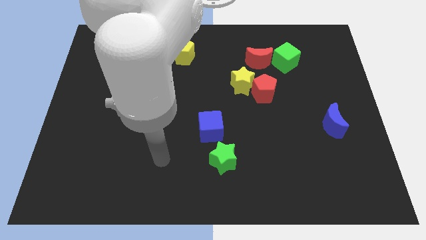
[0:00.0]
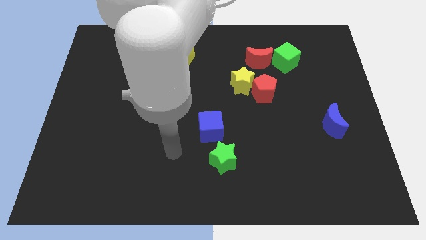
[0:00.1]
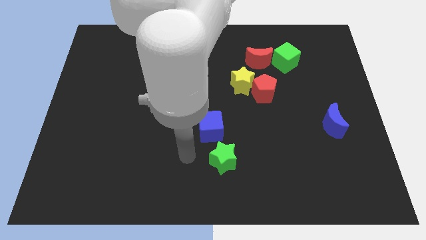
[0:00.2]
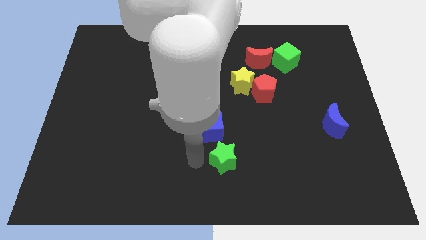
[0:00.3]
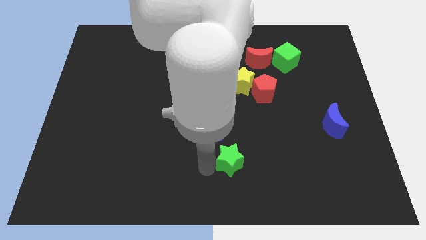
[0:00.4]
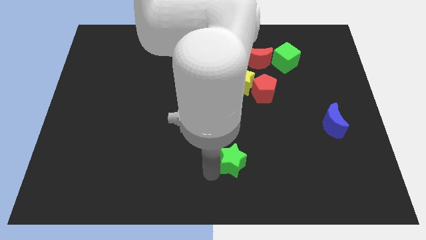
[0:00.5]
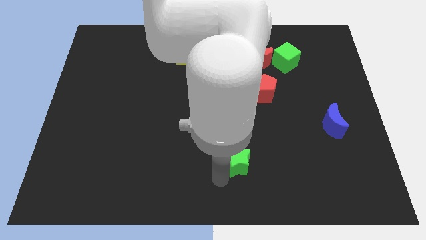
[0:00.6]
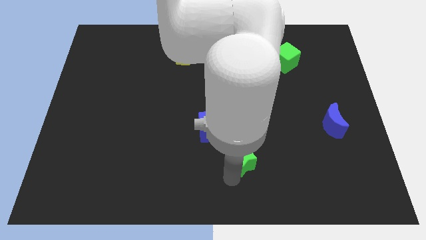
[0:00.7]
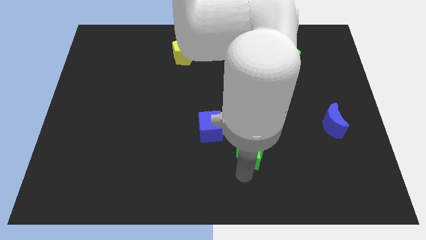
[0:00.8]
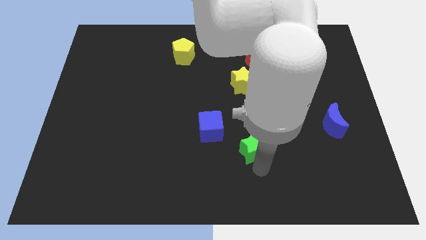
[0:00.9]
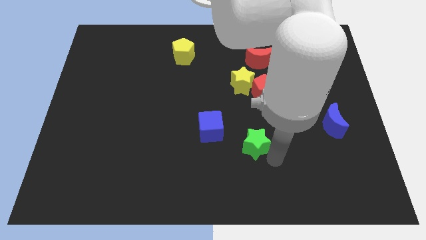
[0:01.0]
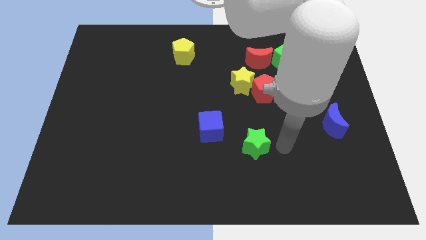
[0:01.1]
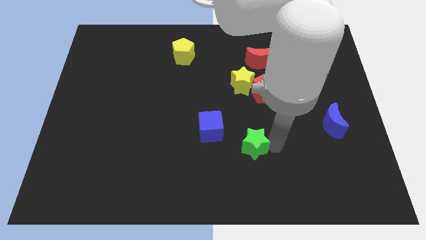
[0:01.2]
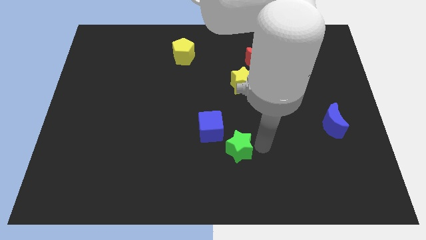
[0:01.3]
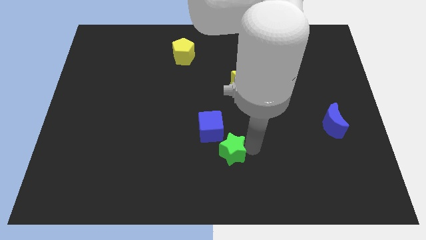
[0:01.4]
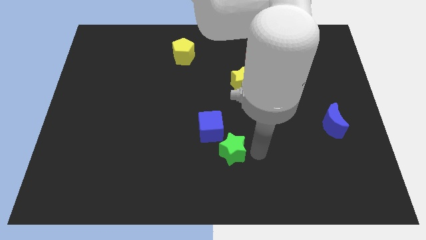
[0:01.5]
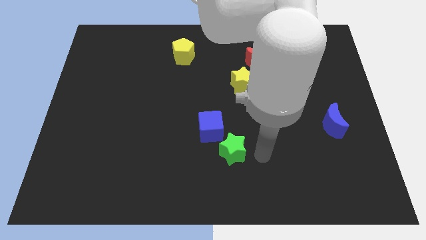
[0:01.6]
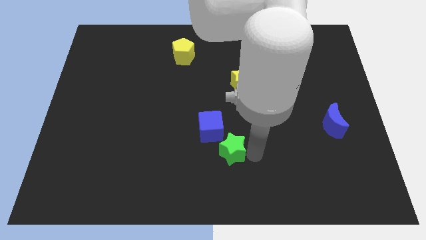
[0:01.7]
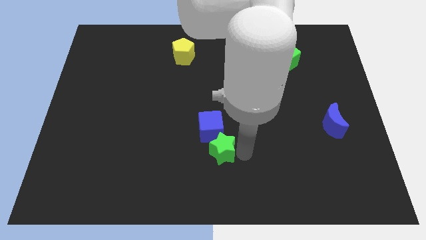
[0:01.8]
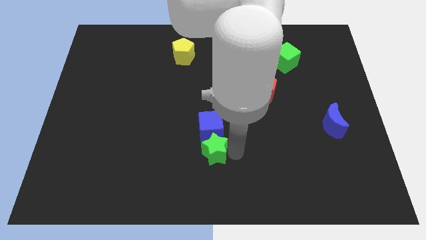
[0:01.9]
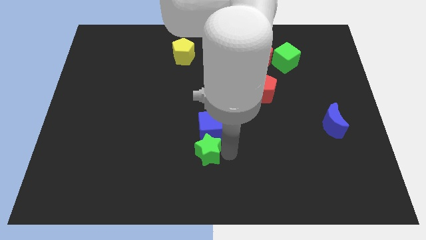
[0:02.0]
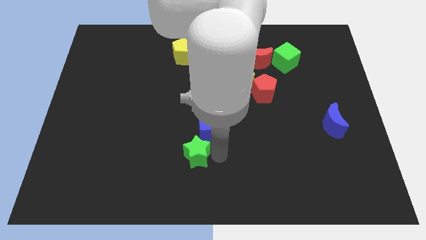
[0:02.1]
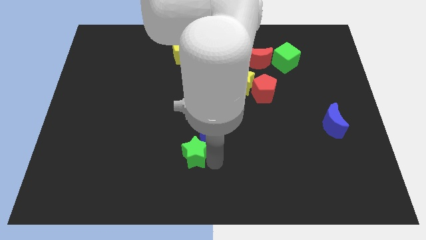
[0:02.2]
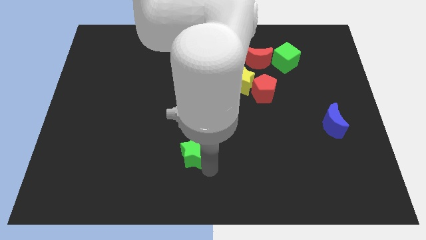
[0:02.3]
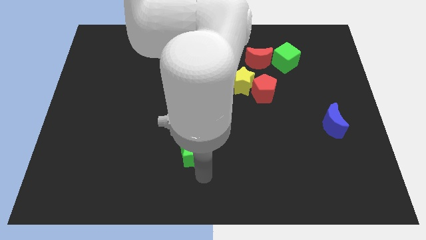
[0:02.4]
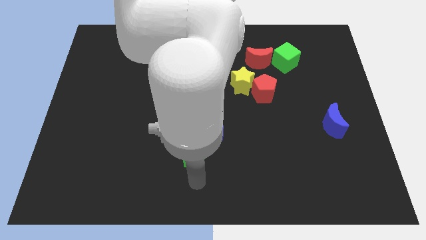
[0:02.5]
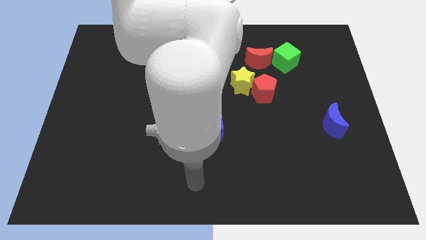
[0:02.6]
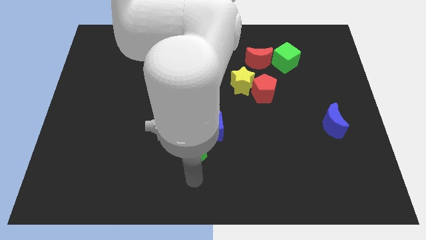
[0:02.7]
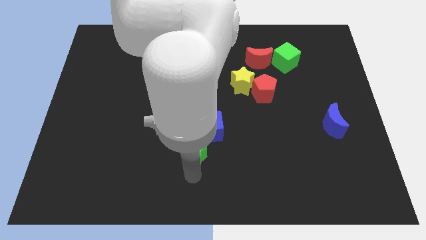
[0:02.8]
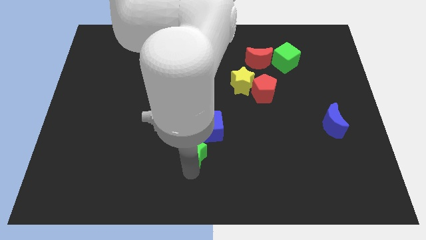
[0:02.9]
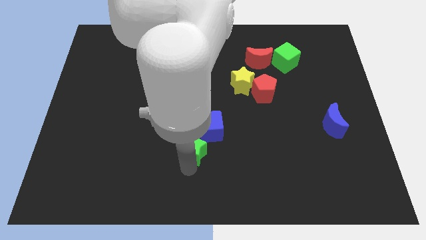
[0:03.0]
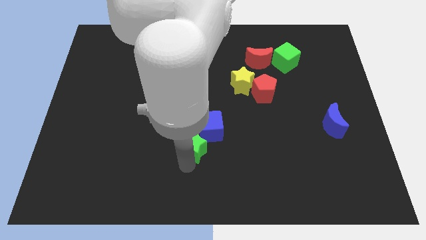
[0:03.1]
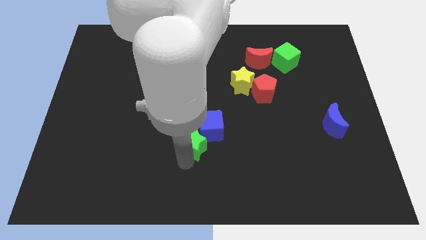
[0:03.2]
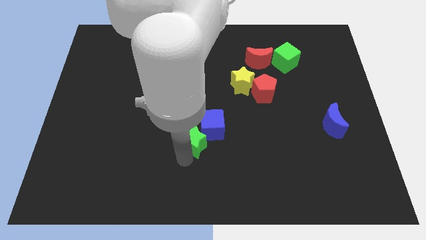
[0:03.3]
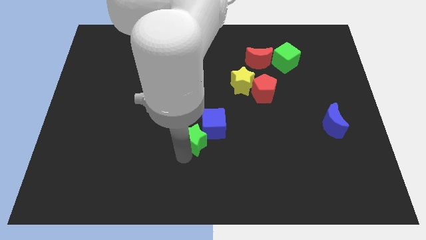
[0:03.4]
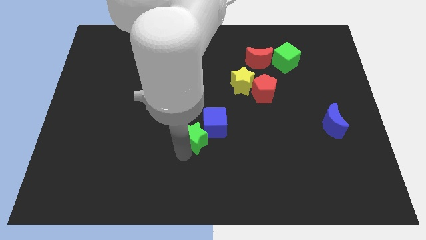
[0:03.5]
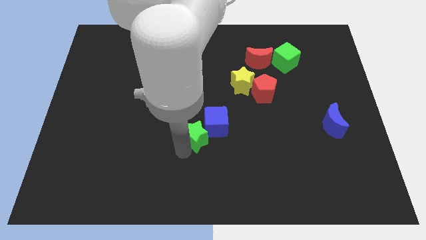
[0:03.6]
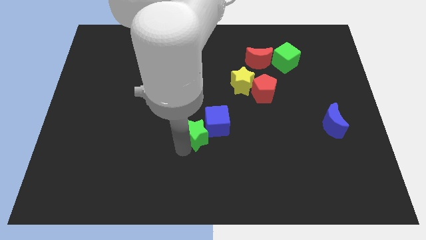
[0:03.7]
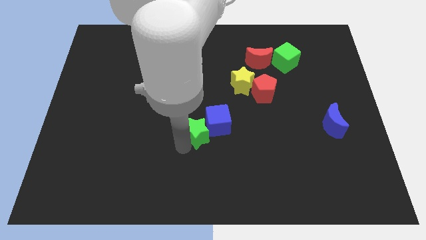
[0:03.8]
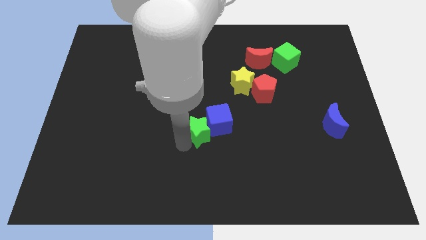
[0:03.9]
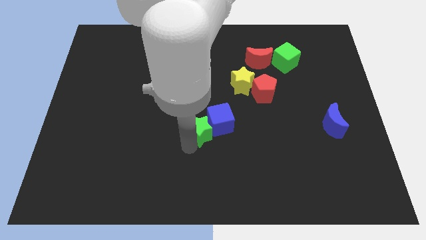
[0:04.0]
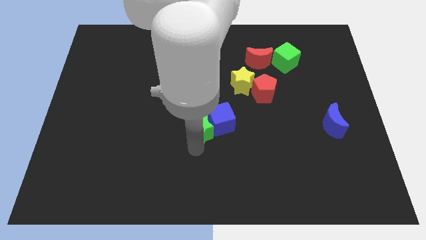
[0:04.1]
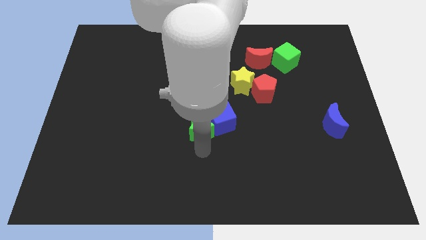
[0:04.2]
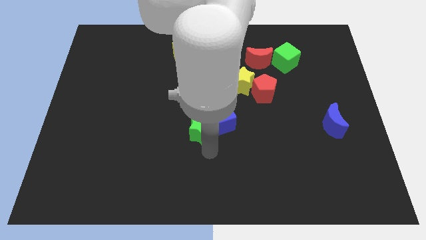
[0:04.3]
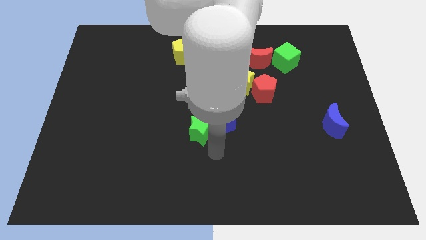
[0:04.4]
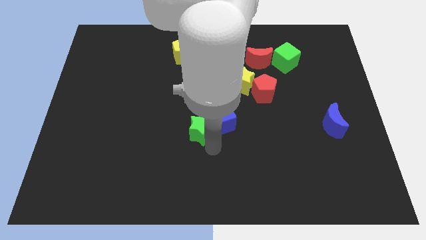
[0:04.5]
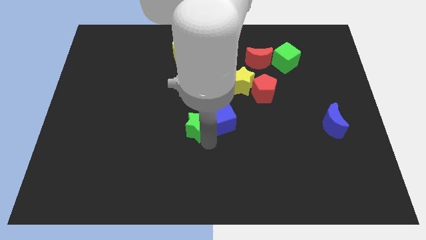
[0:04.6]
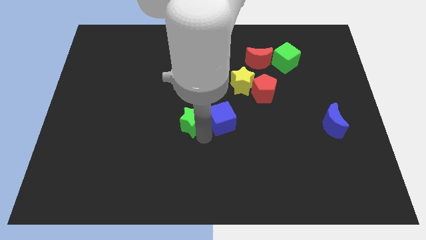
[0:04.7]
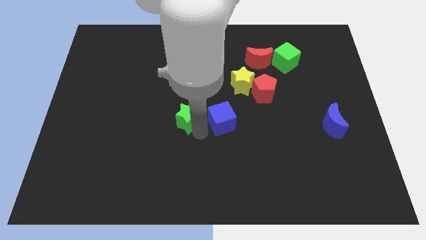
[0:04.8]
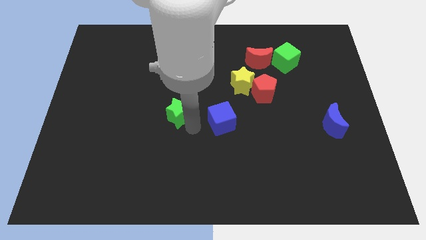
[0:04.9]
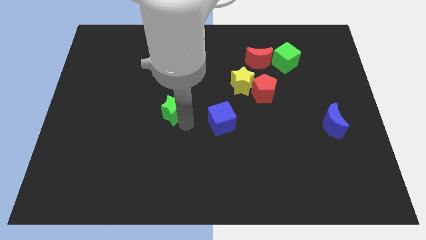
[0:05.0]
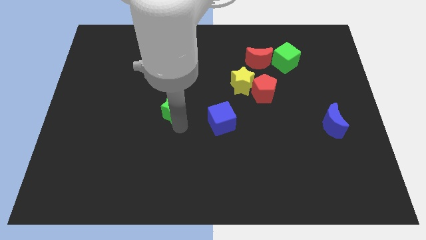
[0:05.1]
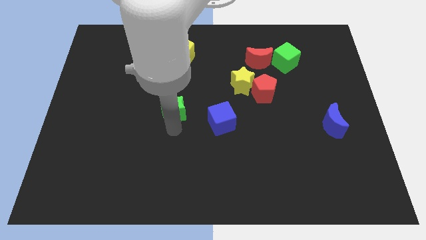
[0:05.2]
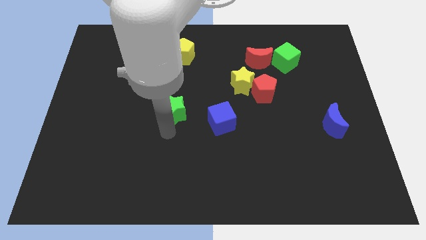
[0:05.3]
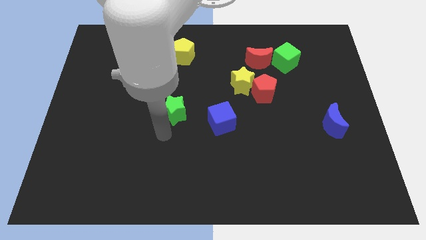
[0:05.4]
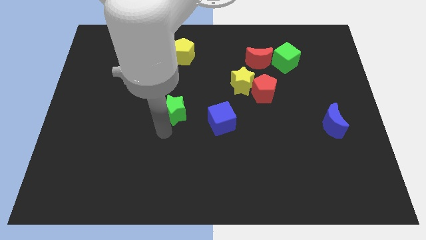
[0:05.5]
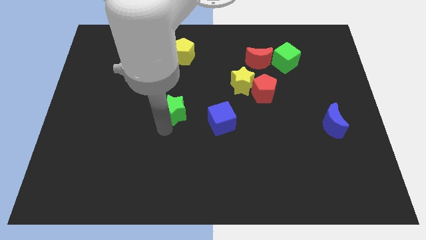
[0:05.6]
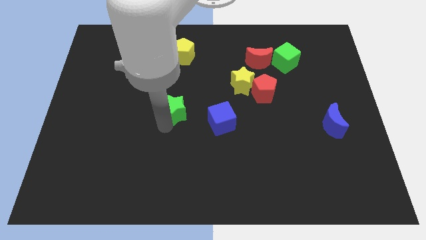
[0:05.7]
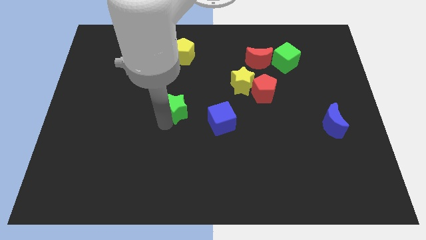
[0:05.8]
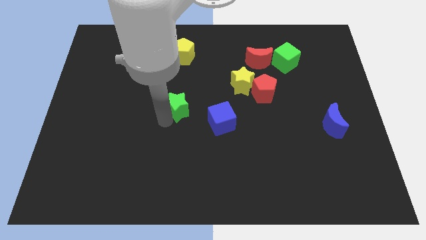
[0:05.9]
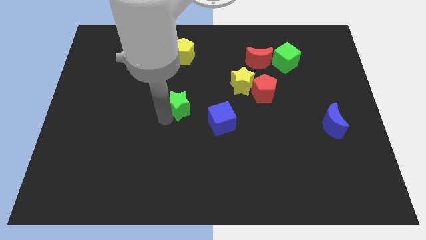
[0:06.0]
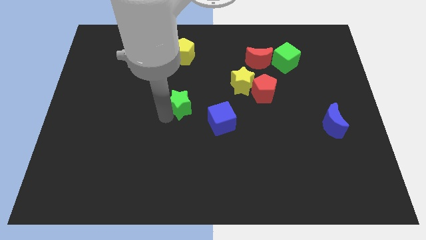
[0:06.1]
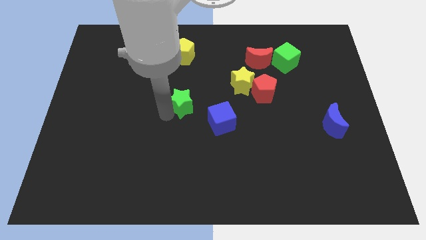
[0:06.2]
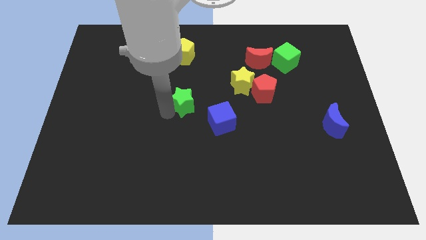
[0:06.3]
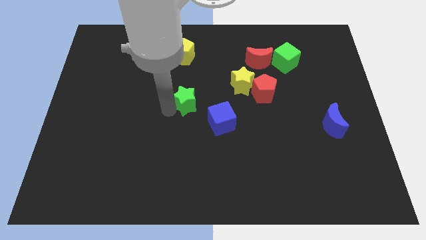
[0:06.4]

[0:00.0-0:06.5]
move the green star below the yellow pentagon

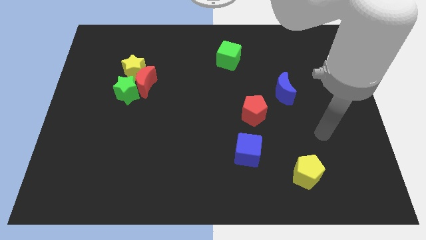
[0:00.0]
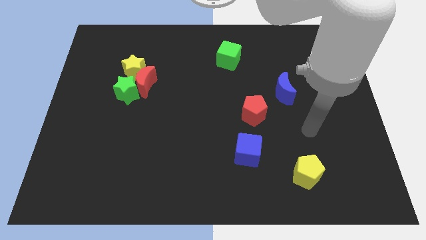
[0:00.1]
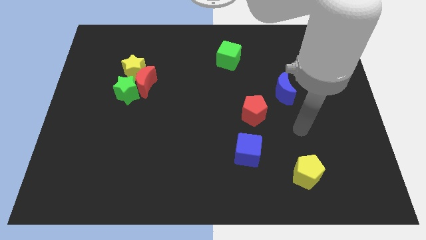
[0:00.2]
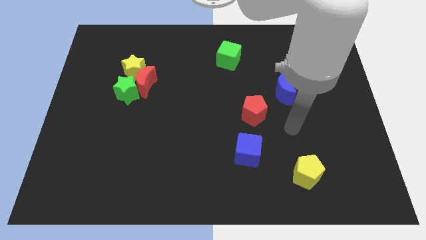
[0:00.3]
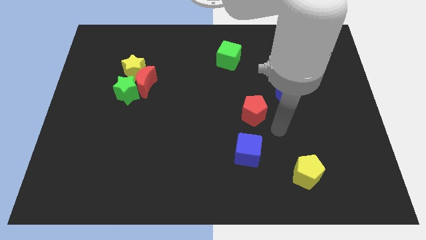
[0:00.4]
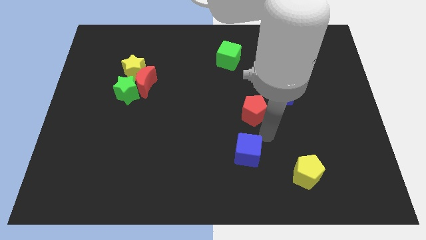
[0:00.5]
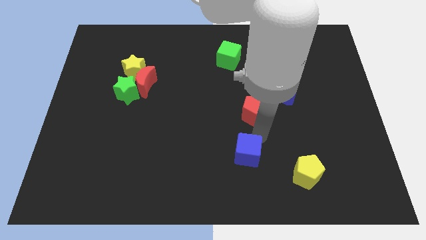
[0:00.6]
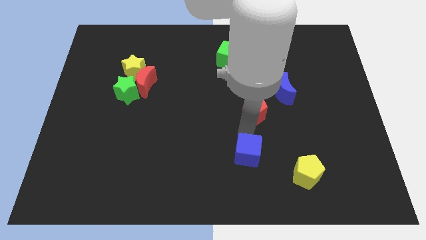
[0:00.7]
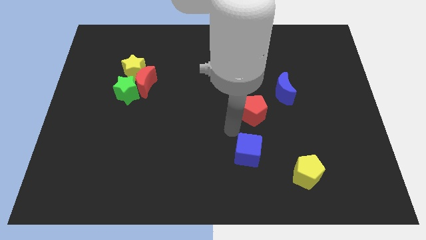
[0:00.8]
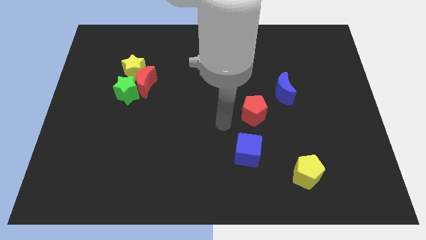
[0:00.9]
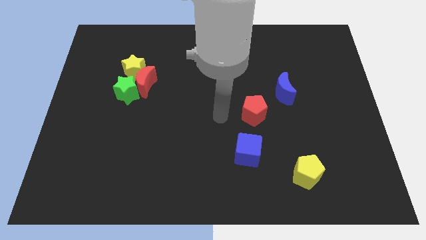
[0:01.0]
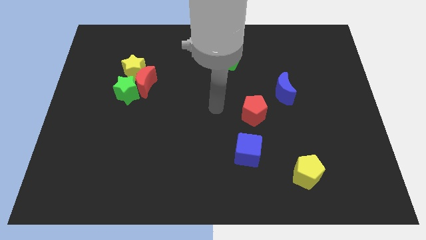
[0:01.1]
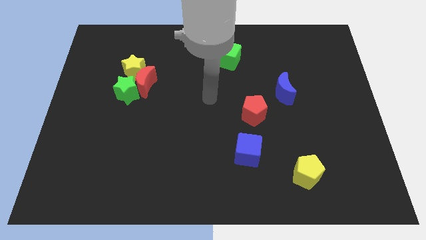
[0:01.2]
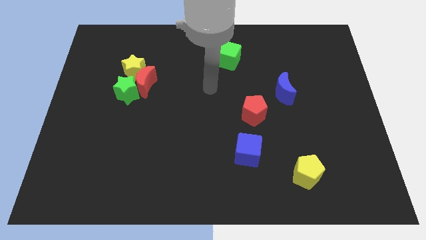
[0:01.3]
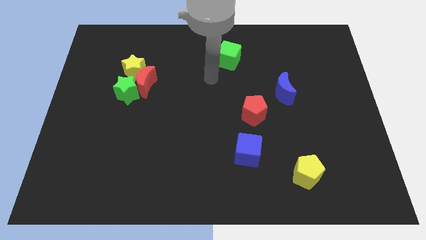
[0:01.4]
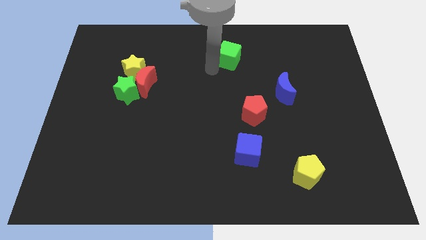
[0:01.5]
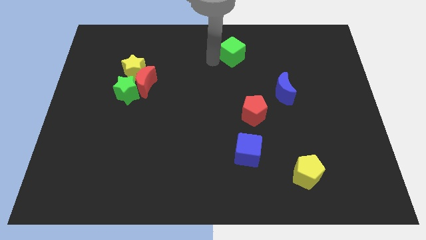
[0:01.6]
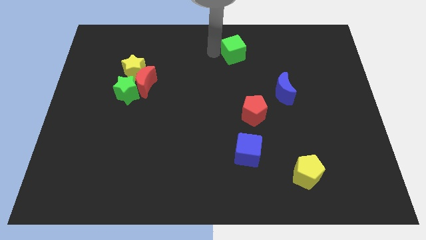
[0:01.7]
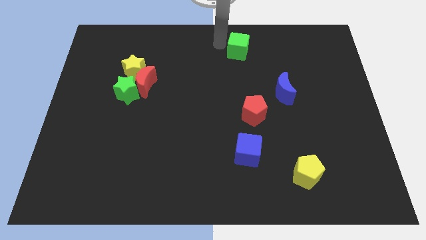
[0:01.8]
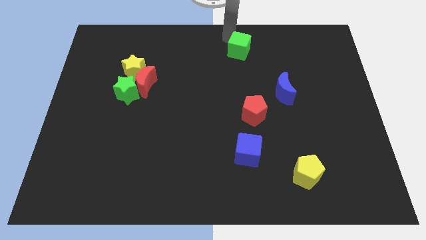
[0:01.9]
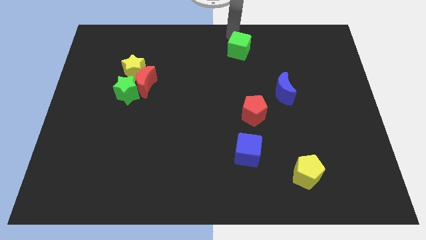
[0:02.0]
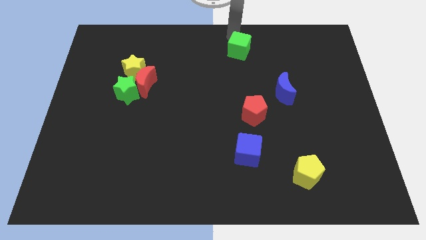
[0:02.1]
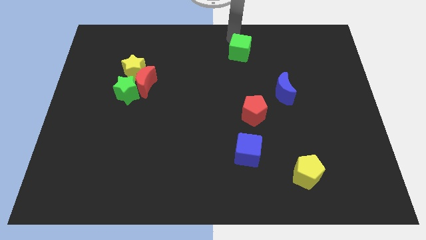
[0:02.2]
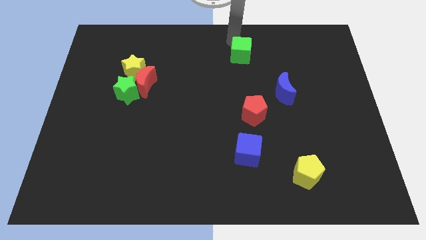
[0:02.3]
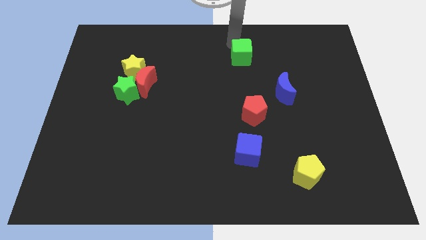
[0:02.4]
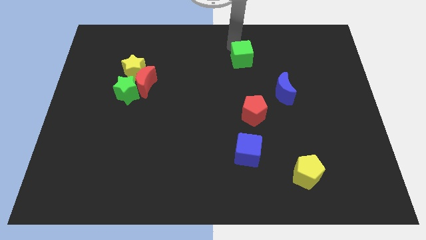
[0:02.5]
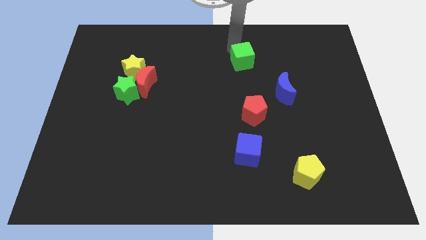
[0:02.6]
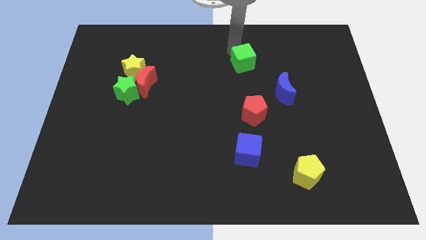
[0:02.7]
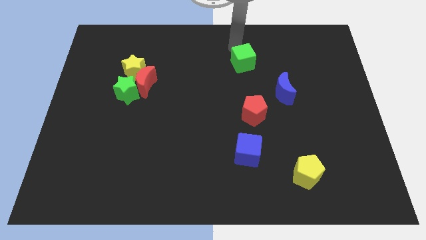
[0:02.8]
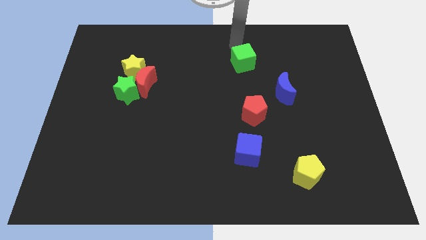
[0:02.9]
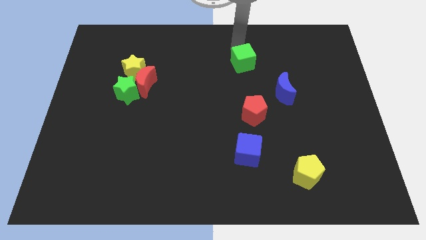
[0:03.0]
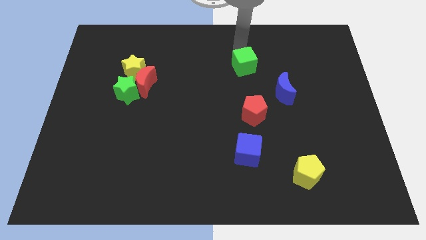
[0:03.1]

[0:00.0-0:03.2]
push the green cube above the red pentagon
